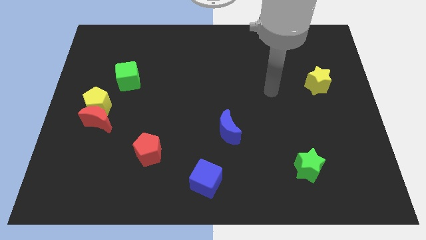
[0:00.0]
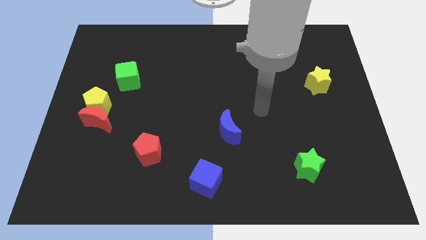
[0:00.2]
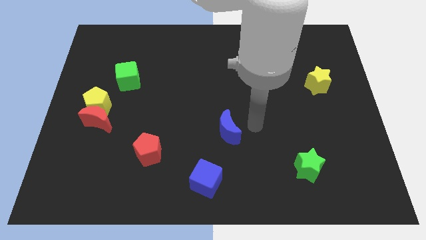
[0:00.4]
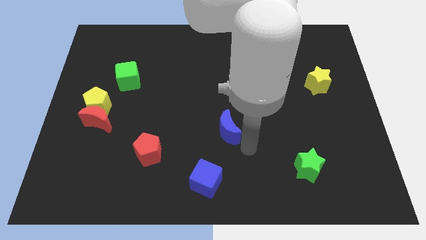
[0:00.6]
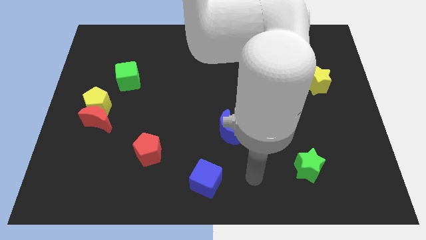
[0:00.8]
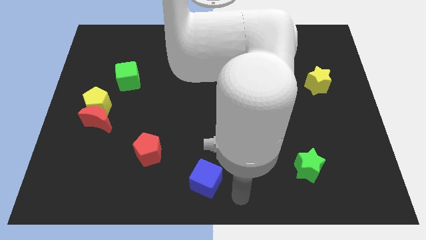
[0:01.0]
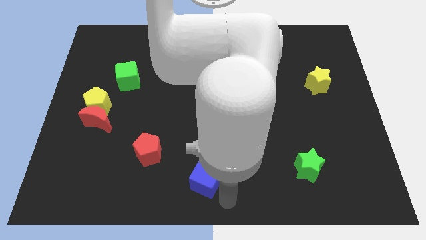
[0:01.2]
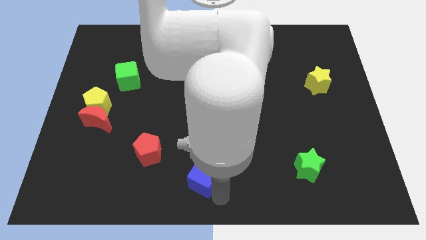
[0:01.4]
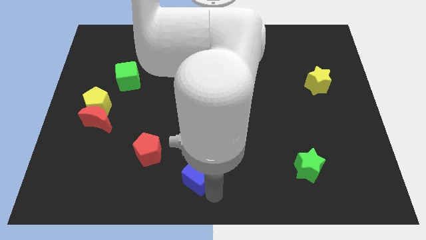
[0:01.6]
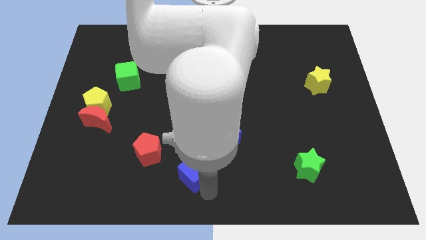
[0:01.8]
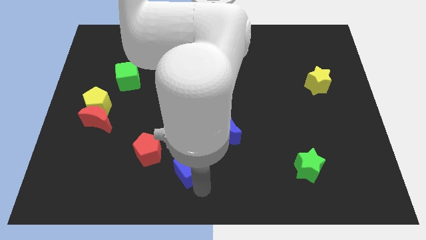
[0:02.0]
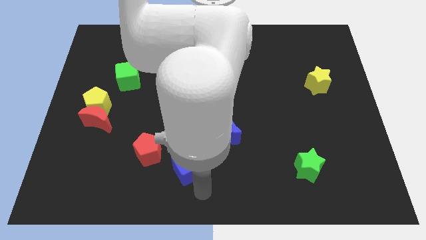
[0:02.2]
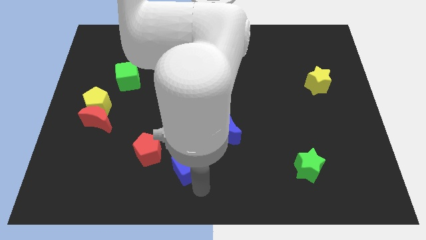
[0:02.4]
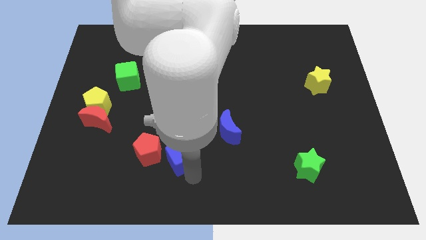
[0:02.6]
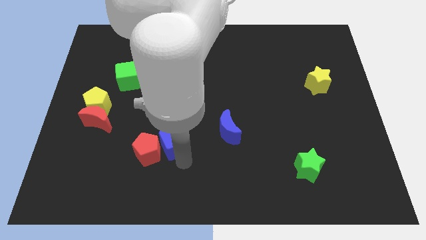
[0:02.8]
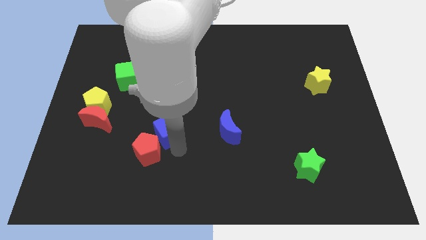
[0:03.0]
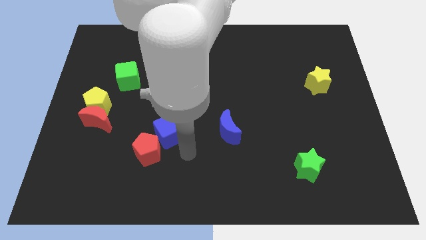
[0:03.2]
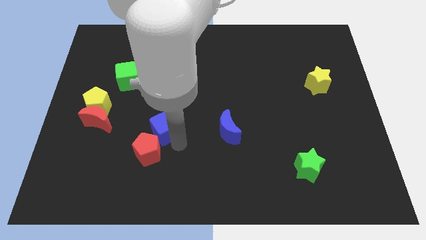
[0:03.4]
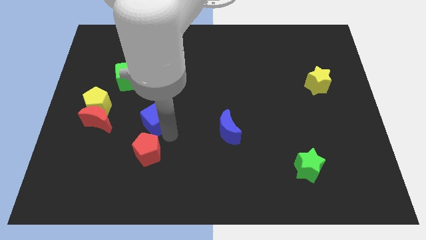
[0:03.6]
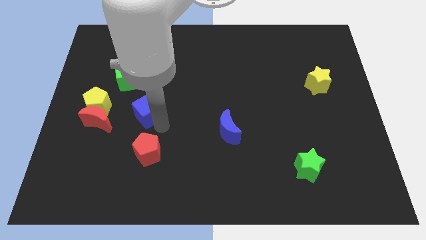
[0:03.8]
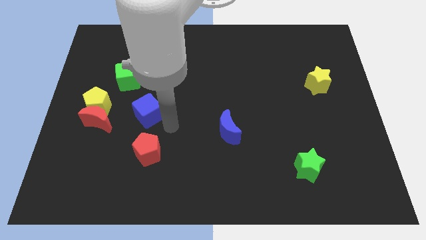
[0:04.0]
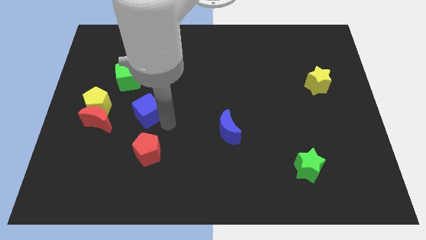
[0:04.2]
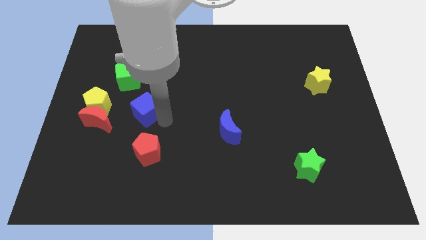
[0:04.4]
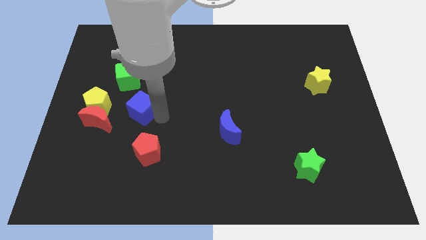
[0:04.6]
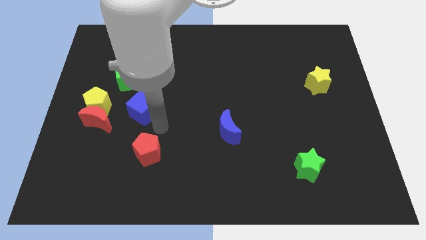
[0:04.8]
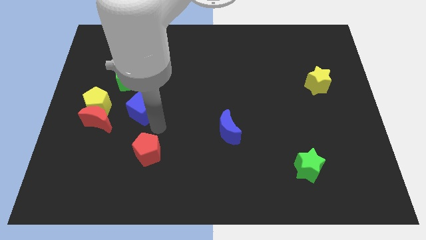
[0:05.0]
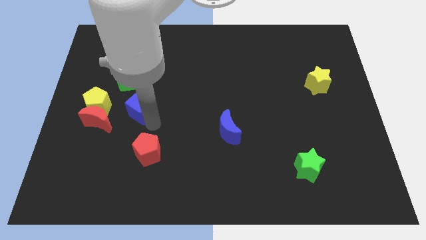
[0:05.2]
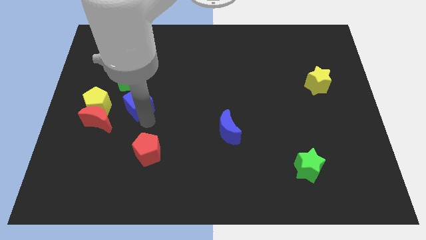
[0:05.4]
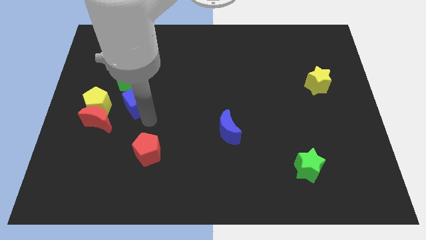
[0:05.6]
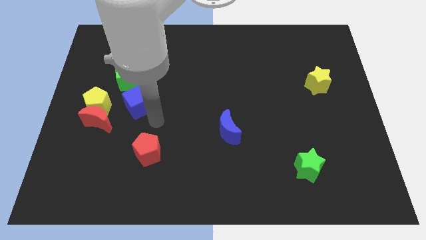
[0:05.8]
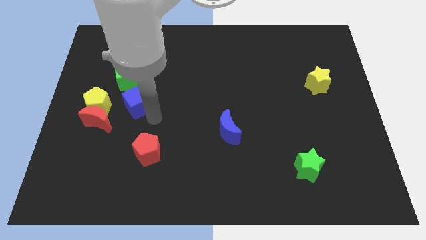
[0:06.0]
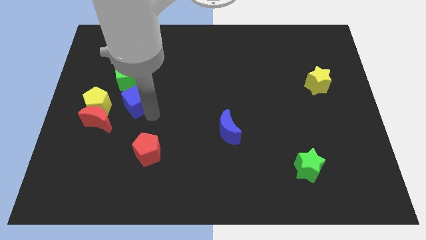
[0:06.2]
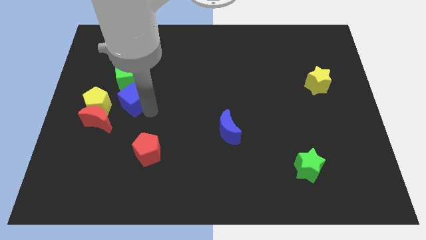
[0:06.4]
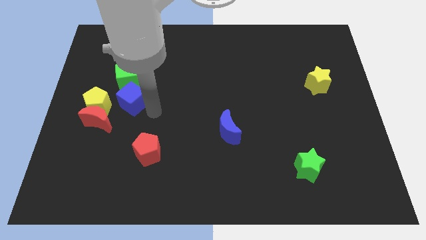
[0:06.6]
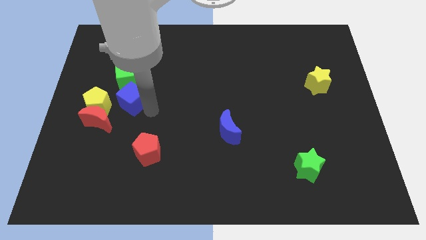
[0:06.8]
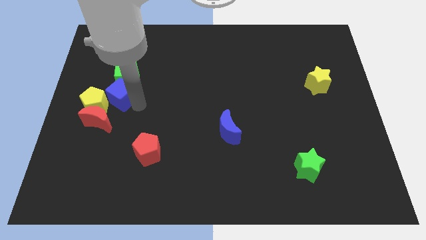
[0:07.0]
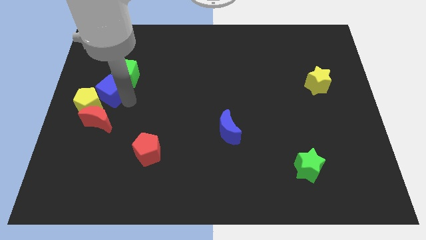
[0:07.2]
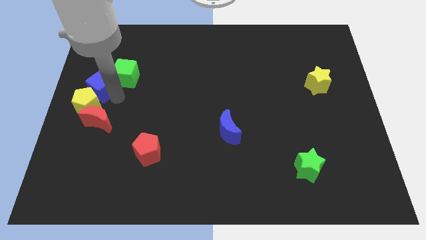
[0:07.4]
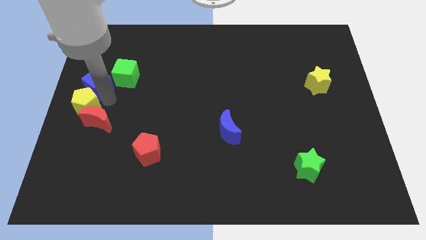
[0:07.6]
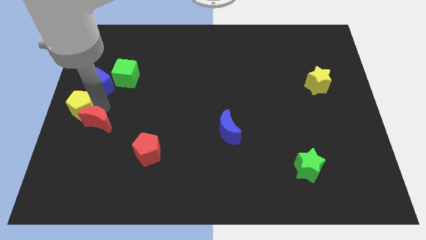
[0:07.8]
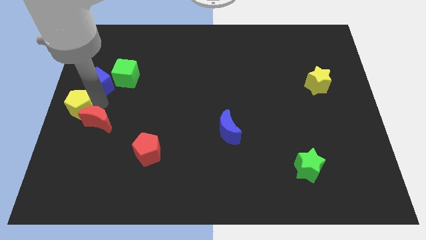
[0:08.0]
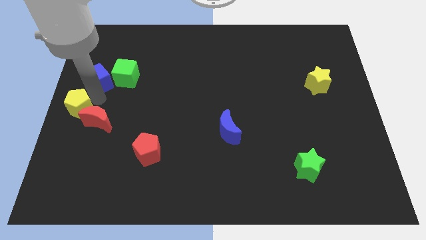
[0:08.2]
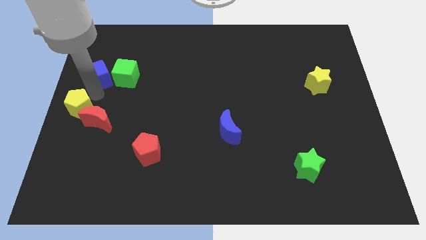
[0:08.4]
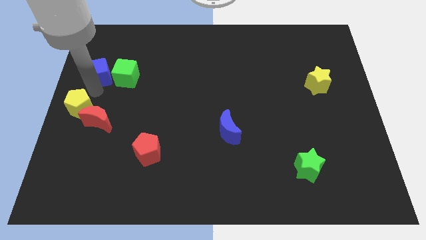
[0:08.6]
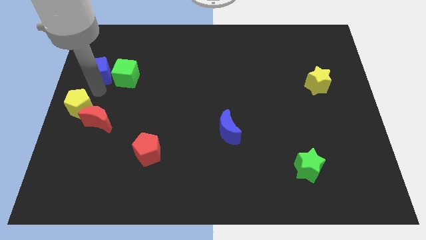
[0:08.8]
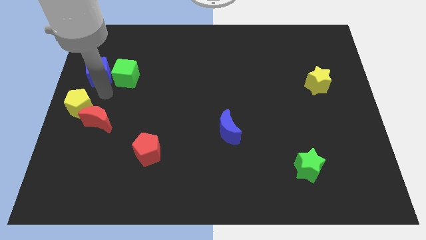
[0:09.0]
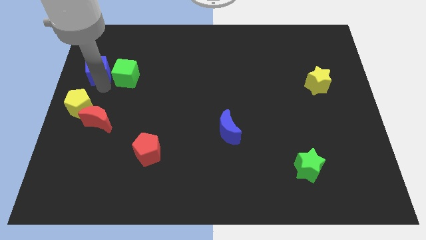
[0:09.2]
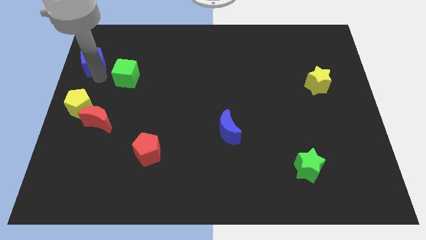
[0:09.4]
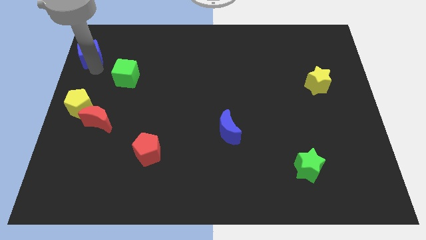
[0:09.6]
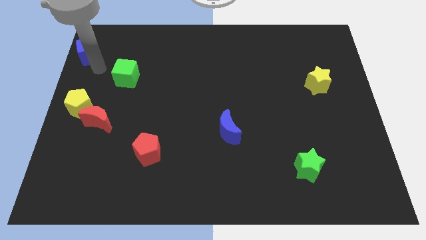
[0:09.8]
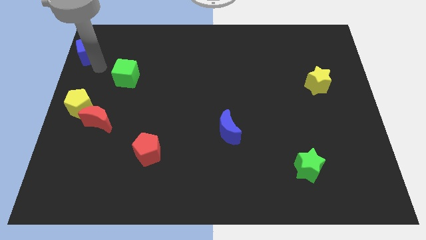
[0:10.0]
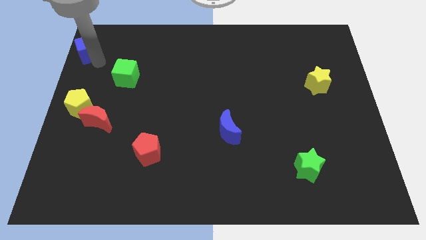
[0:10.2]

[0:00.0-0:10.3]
slide the blue cube to the top left of the board

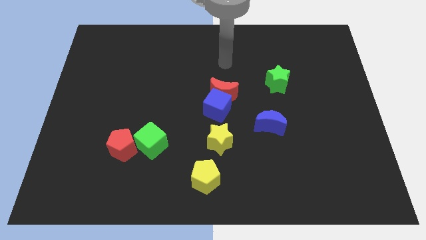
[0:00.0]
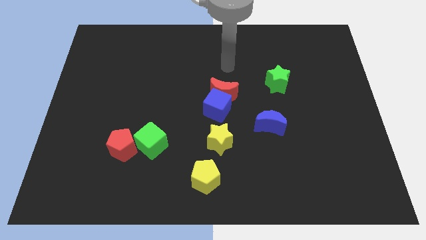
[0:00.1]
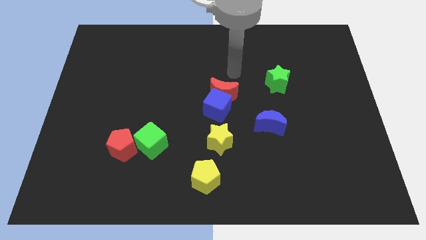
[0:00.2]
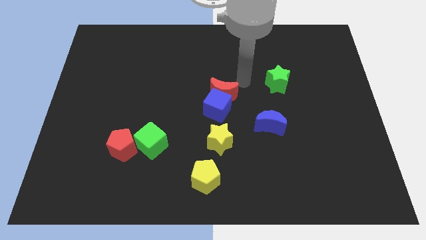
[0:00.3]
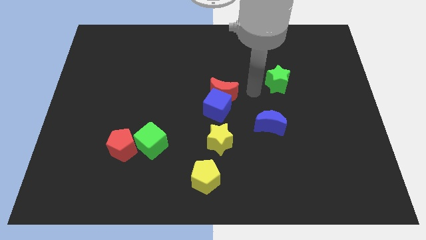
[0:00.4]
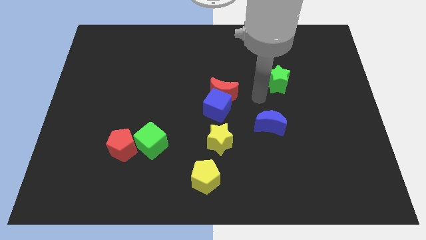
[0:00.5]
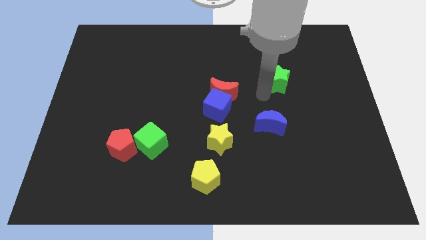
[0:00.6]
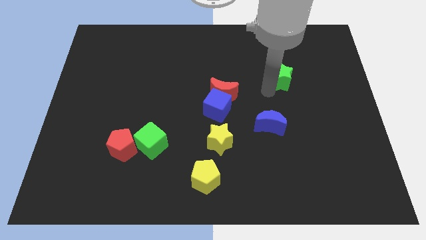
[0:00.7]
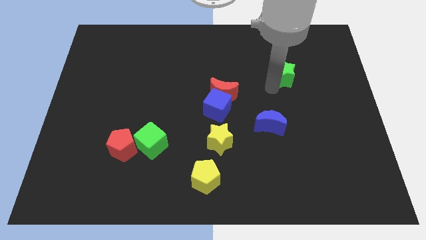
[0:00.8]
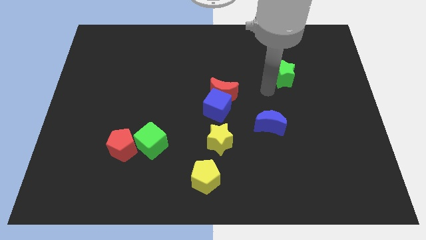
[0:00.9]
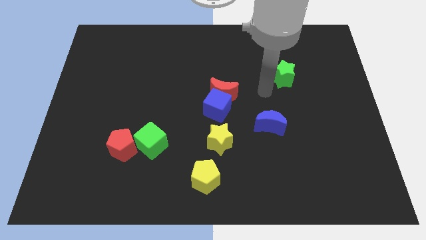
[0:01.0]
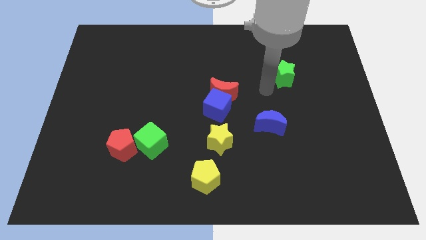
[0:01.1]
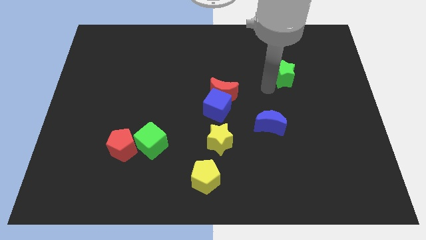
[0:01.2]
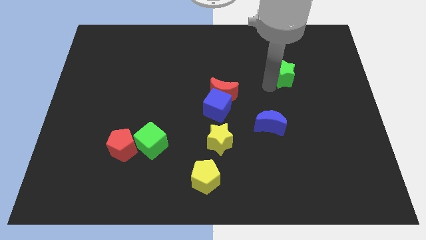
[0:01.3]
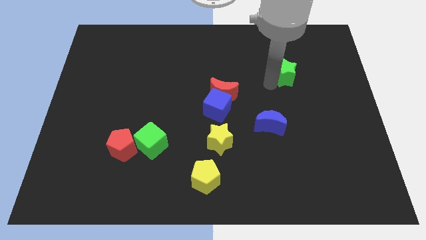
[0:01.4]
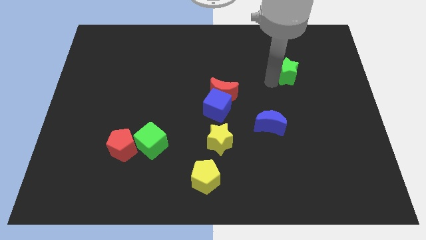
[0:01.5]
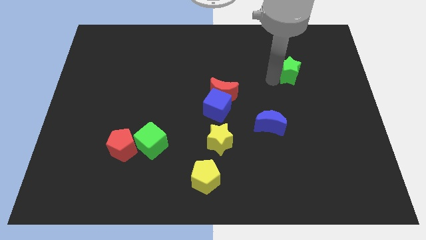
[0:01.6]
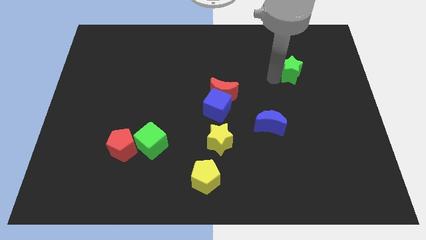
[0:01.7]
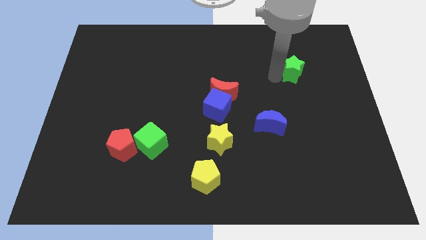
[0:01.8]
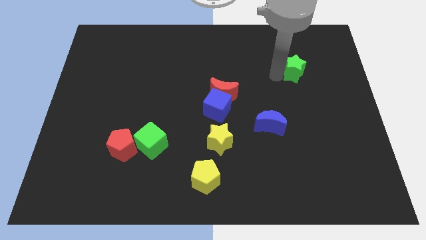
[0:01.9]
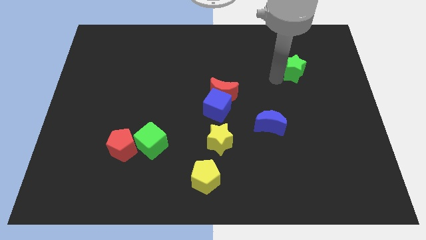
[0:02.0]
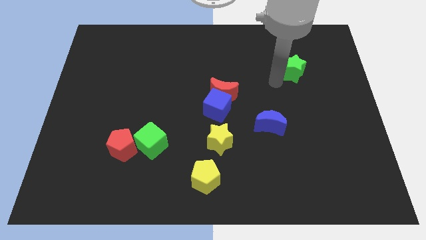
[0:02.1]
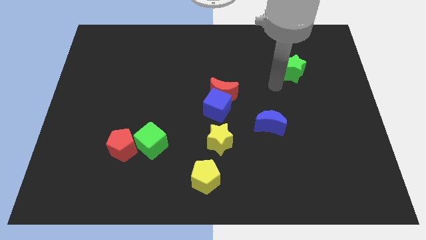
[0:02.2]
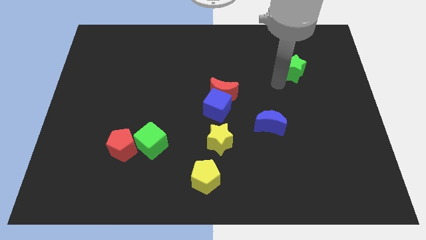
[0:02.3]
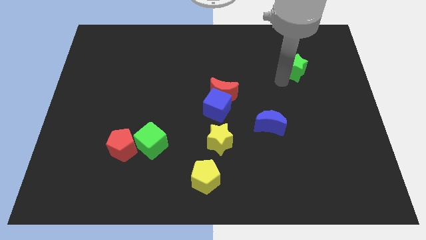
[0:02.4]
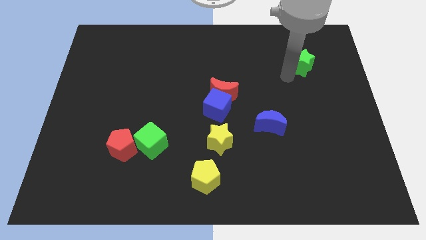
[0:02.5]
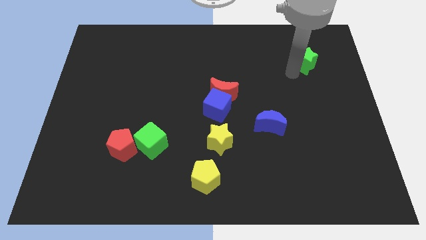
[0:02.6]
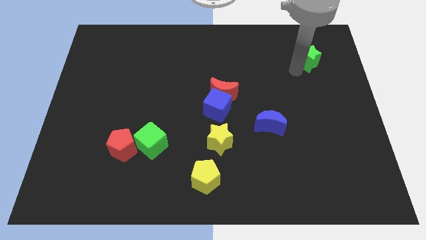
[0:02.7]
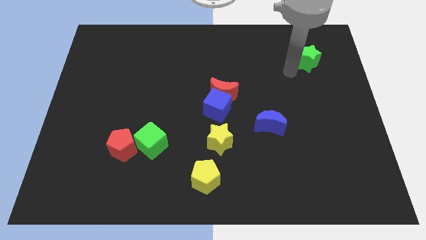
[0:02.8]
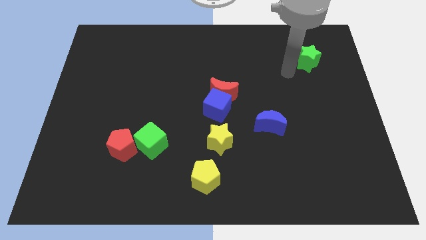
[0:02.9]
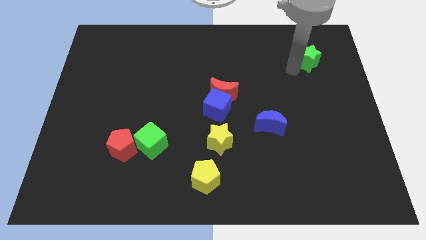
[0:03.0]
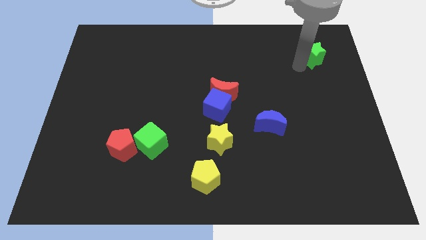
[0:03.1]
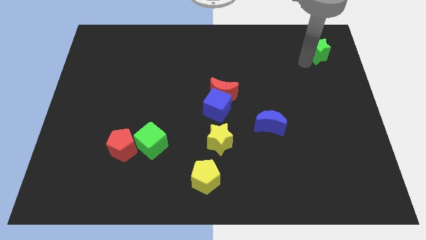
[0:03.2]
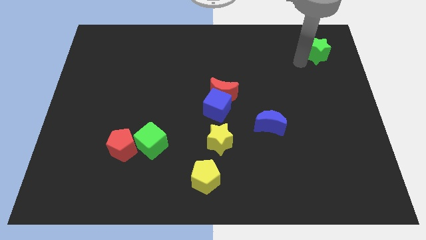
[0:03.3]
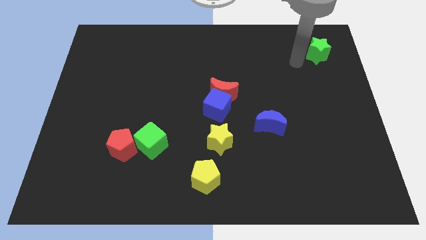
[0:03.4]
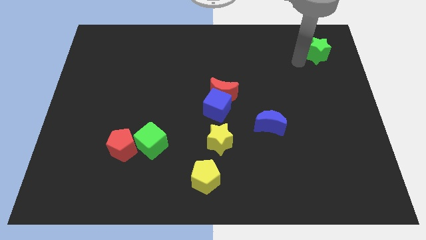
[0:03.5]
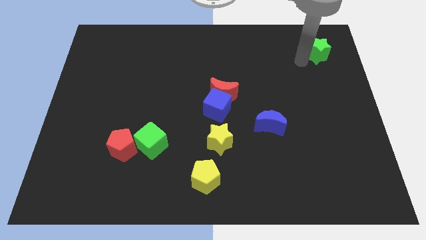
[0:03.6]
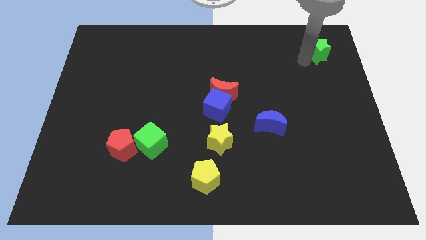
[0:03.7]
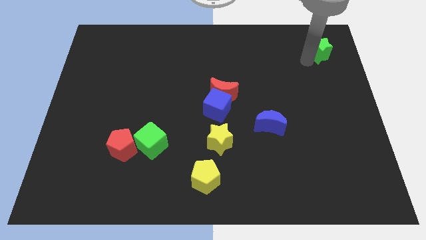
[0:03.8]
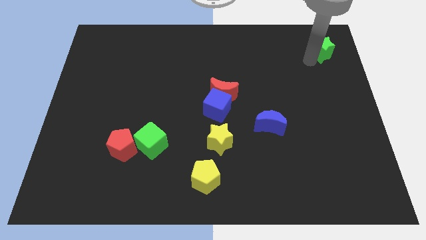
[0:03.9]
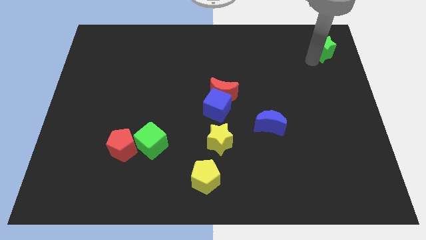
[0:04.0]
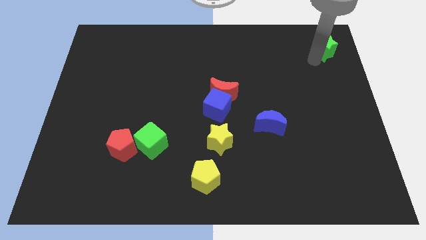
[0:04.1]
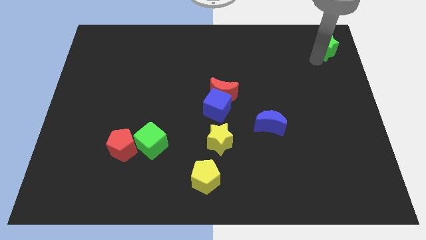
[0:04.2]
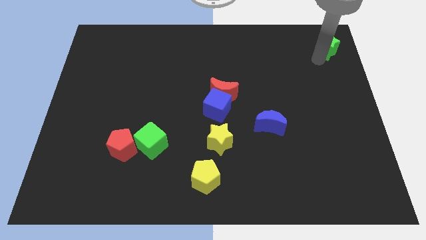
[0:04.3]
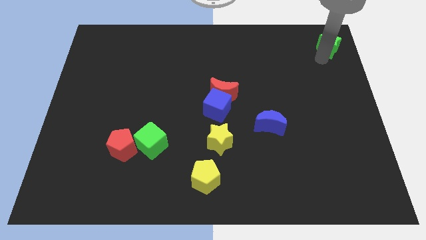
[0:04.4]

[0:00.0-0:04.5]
slide the green star to the upper right corner
